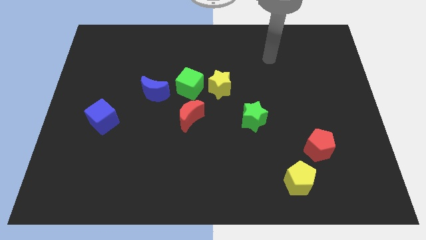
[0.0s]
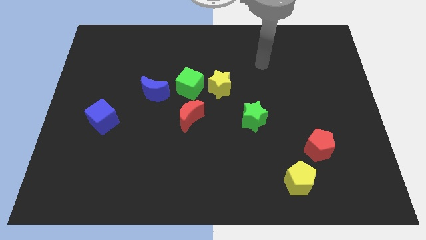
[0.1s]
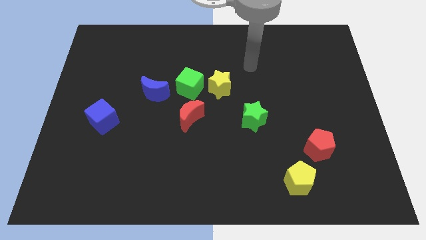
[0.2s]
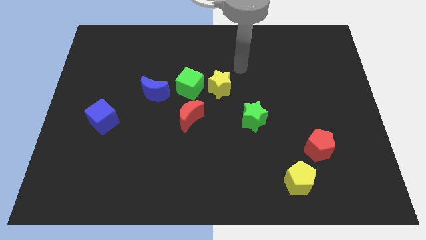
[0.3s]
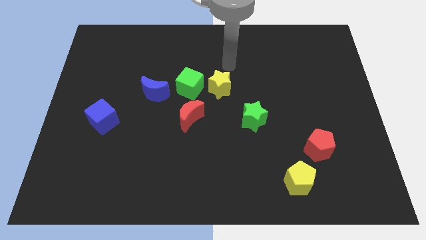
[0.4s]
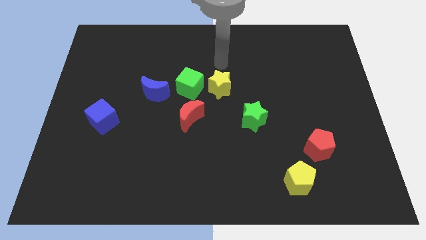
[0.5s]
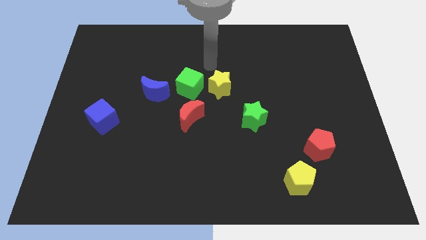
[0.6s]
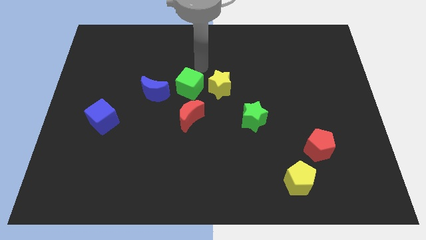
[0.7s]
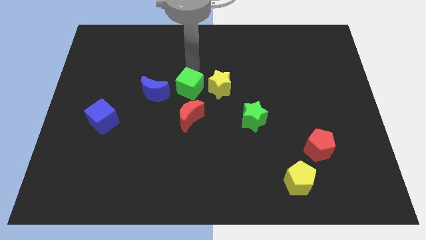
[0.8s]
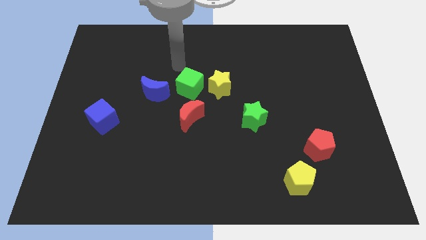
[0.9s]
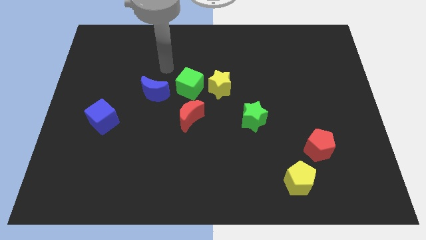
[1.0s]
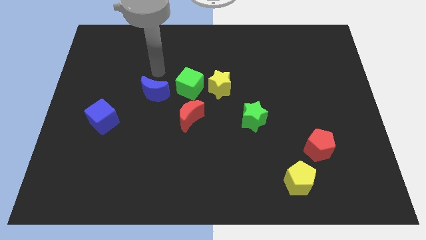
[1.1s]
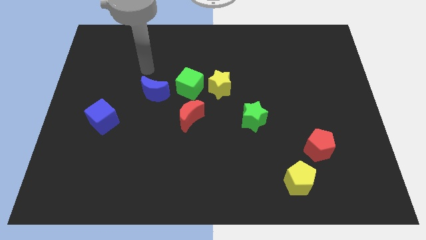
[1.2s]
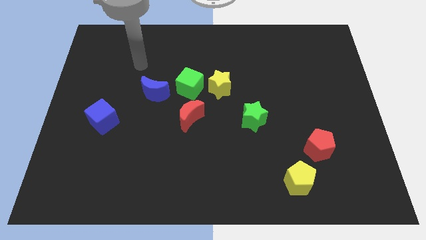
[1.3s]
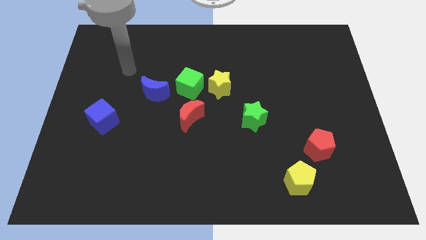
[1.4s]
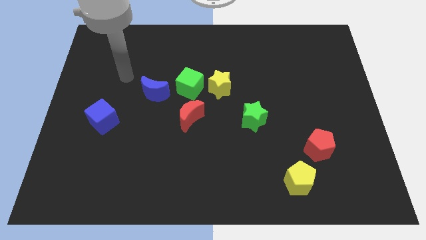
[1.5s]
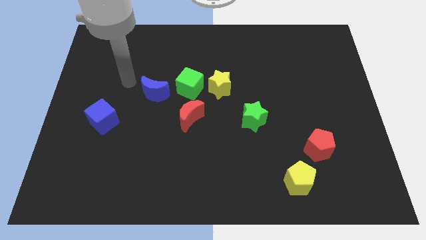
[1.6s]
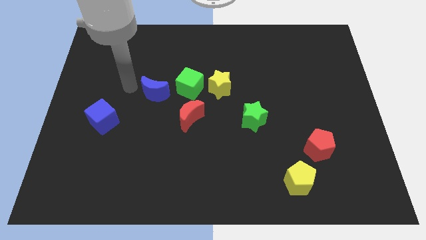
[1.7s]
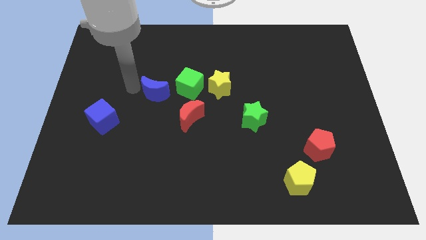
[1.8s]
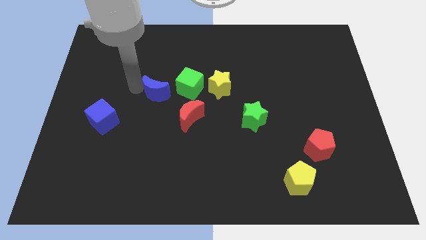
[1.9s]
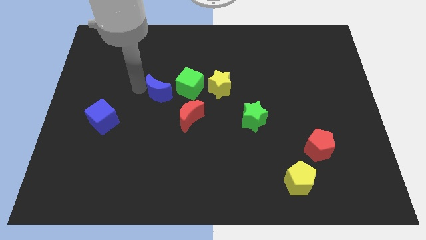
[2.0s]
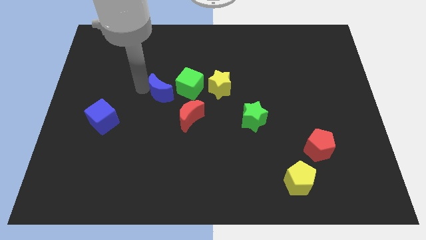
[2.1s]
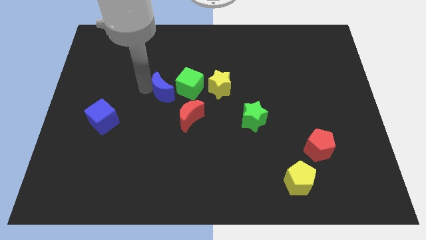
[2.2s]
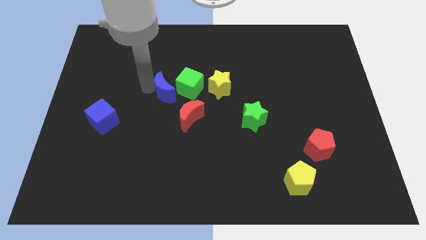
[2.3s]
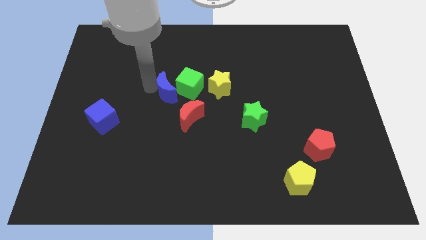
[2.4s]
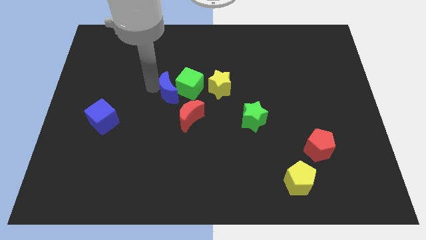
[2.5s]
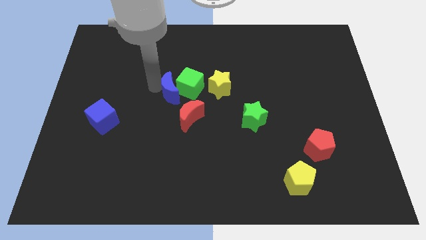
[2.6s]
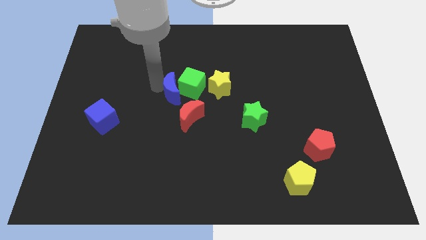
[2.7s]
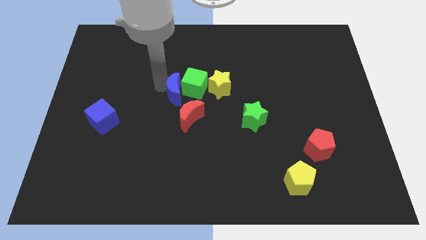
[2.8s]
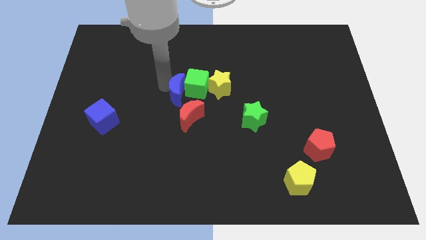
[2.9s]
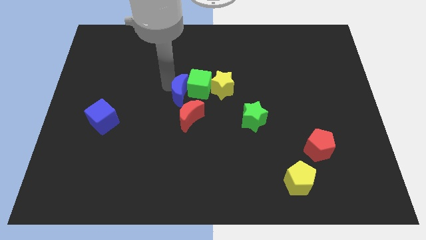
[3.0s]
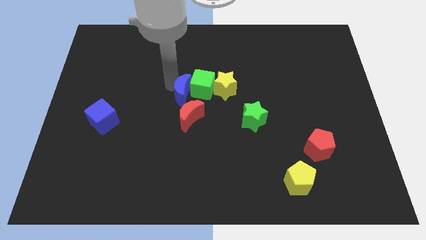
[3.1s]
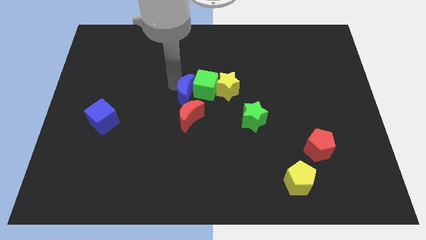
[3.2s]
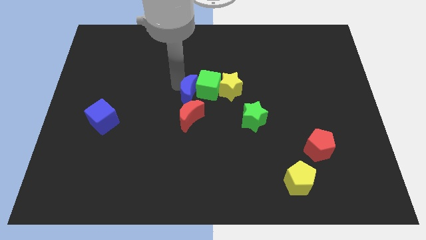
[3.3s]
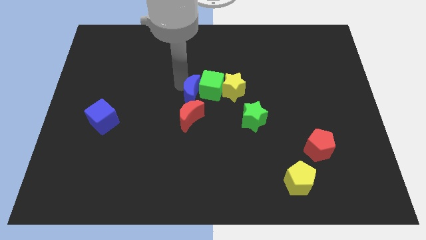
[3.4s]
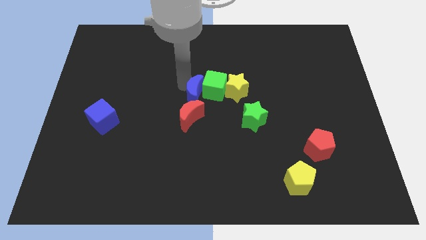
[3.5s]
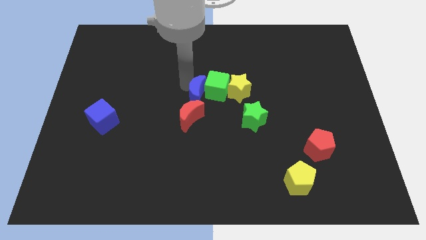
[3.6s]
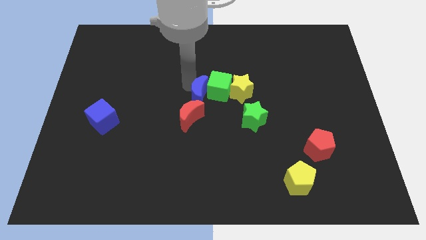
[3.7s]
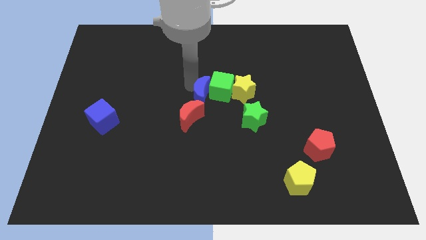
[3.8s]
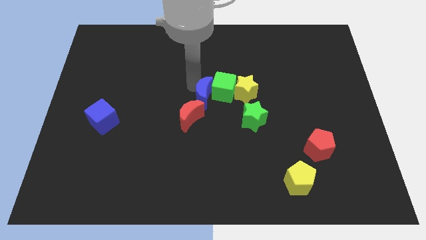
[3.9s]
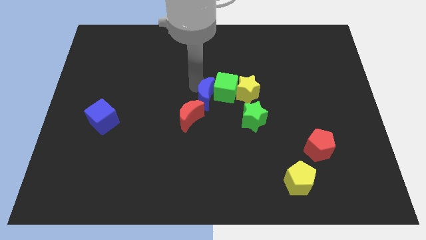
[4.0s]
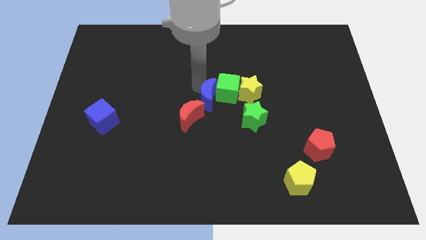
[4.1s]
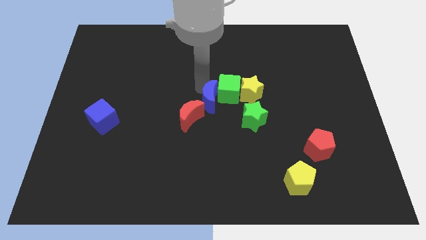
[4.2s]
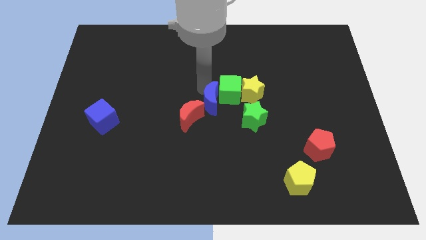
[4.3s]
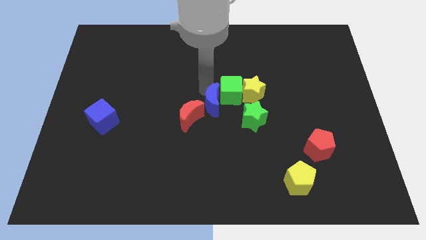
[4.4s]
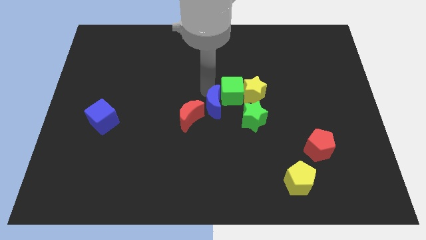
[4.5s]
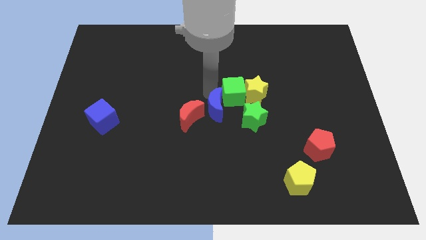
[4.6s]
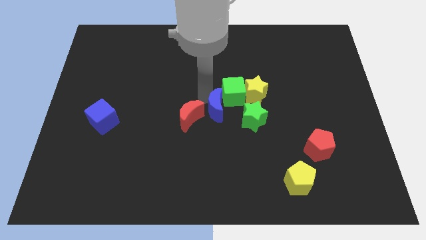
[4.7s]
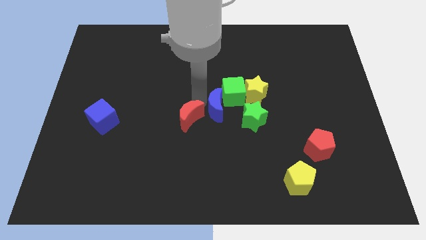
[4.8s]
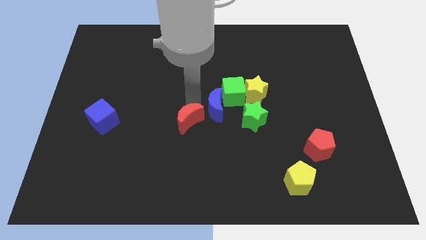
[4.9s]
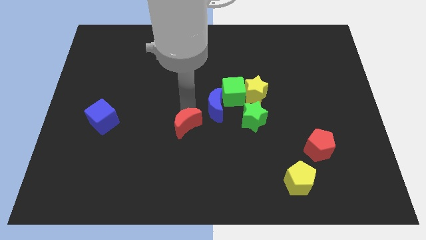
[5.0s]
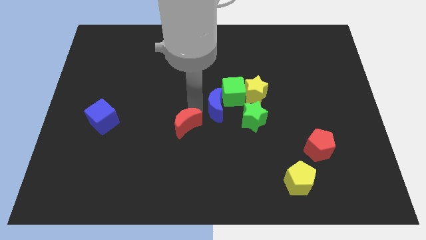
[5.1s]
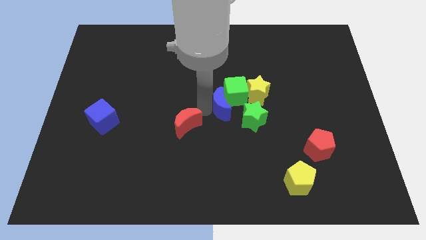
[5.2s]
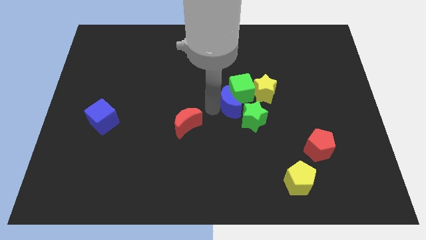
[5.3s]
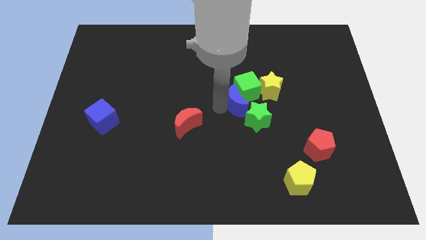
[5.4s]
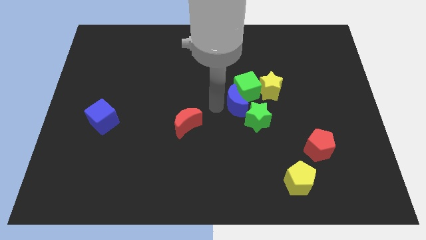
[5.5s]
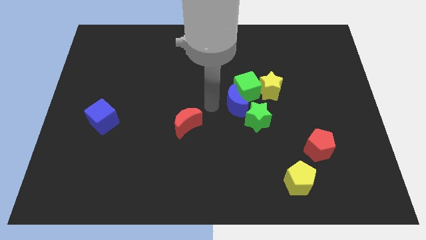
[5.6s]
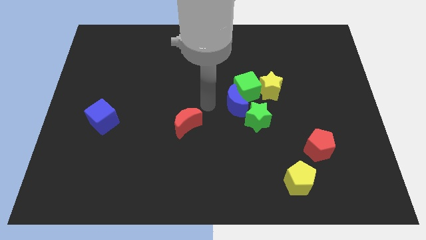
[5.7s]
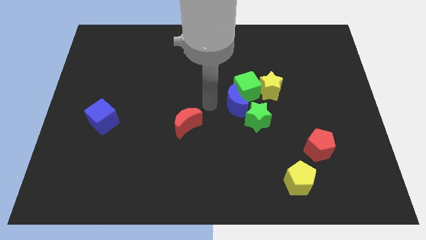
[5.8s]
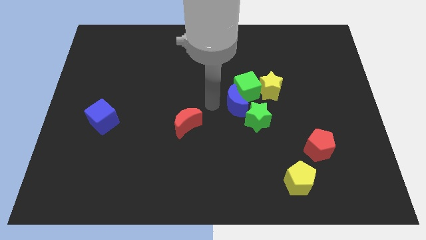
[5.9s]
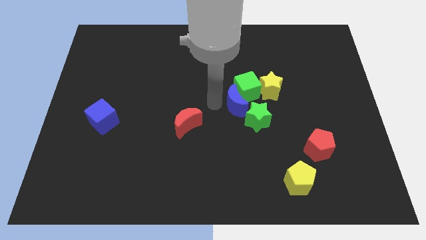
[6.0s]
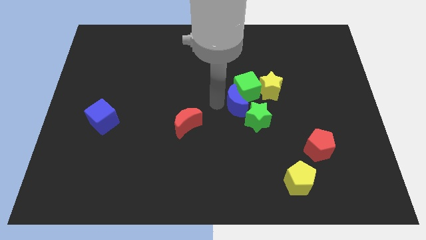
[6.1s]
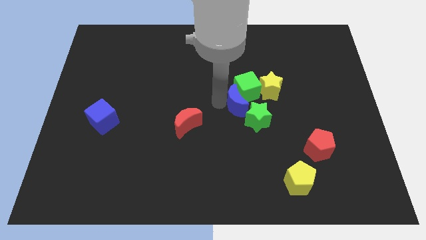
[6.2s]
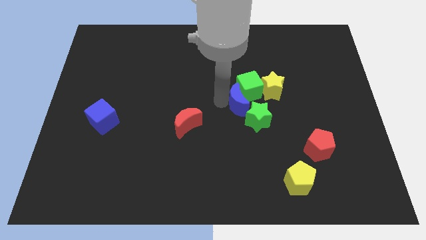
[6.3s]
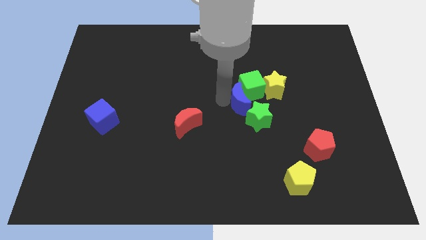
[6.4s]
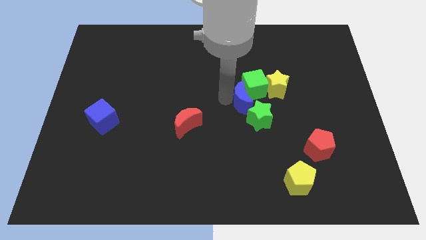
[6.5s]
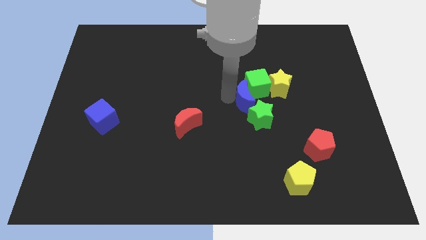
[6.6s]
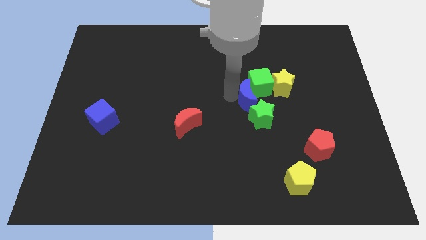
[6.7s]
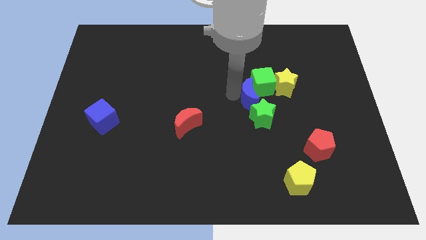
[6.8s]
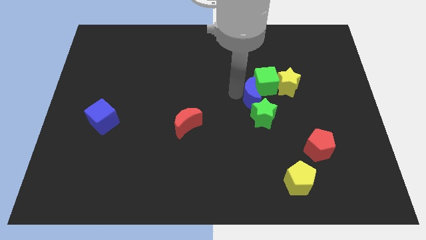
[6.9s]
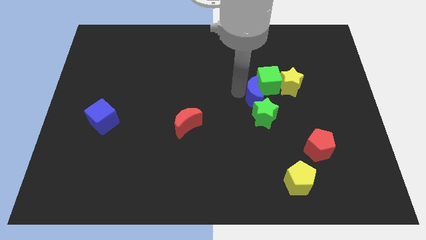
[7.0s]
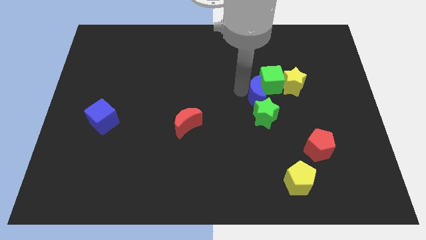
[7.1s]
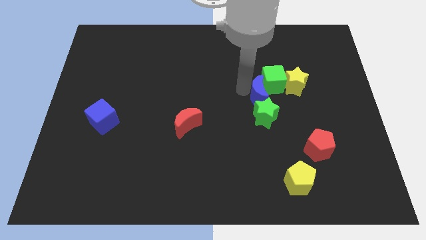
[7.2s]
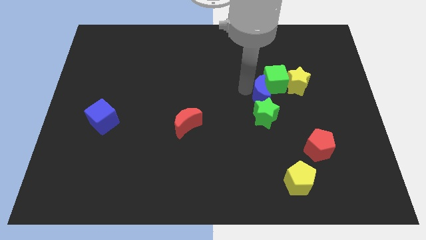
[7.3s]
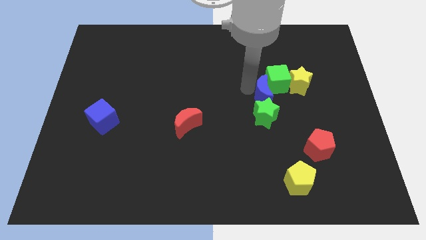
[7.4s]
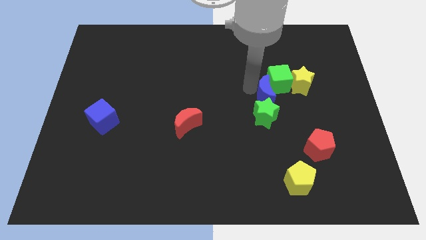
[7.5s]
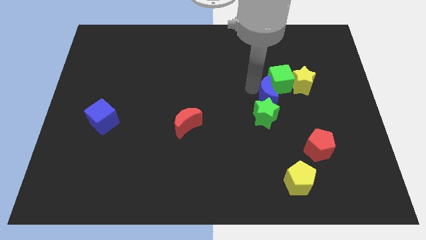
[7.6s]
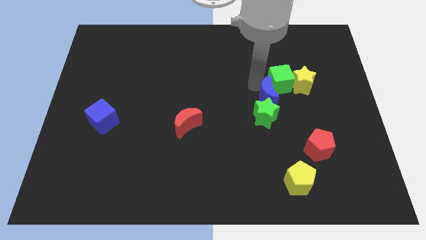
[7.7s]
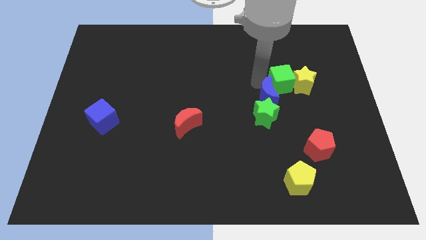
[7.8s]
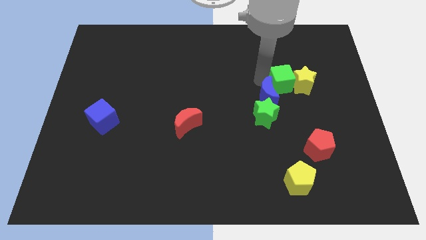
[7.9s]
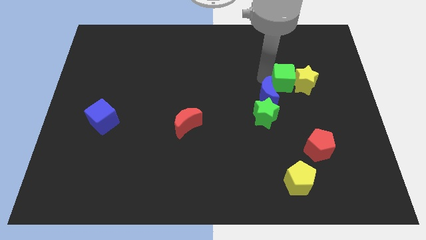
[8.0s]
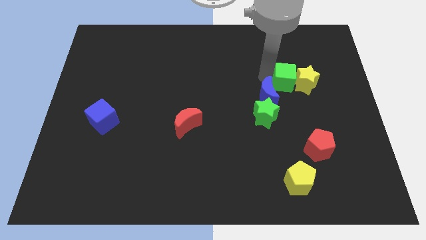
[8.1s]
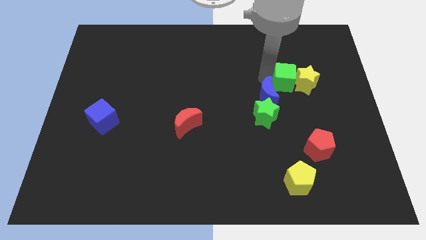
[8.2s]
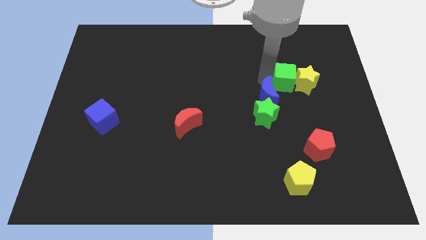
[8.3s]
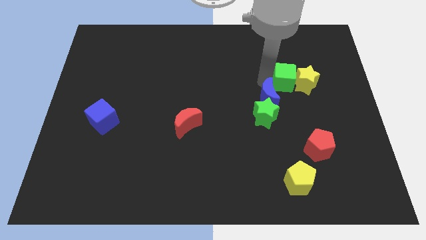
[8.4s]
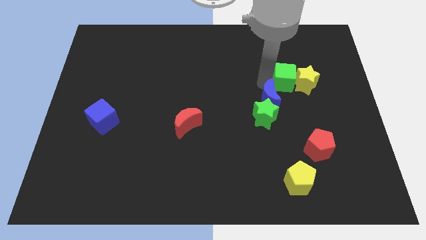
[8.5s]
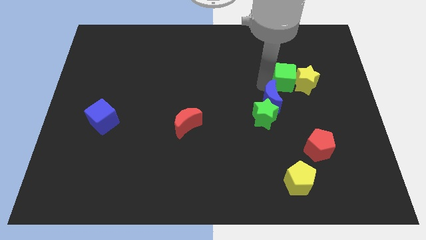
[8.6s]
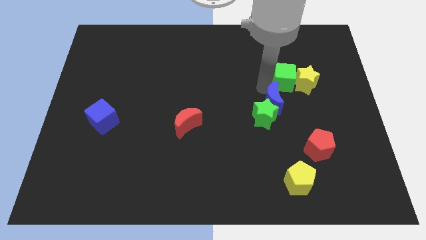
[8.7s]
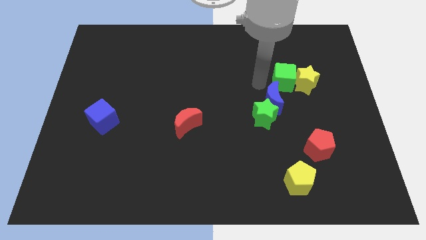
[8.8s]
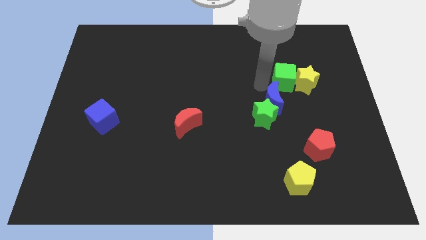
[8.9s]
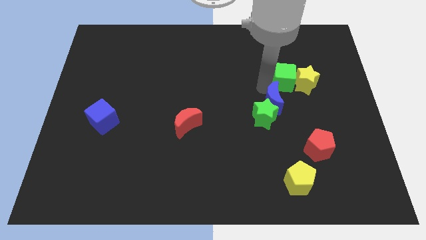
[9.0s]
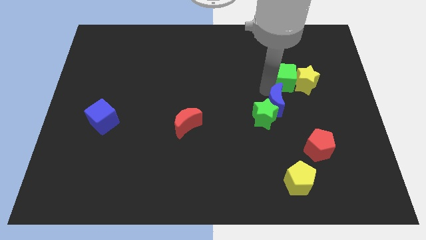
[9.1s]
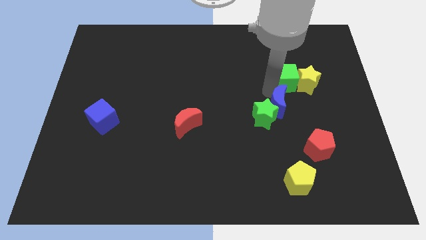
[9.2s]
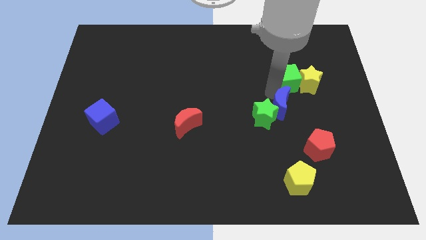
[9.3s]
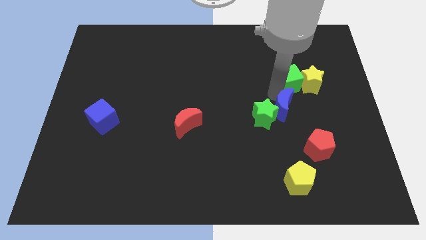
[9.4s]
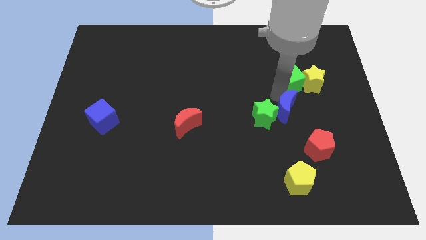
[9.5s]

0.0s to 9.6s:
push the blue moon to the top left side of the red pentagon
